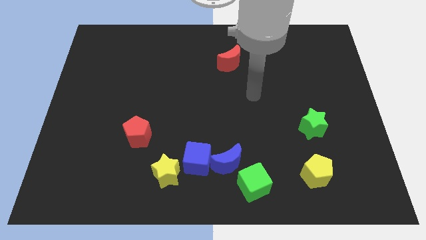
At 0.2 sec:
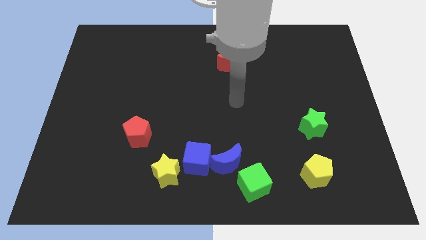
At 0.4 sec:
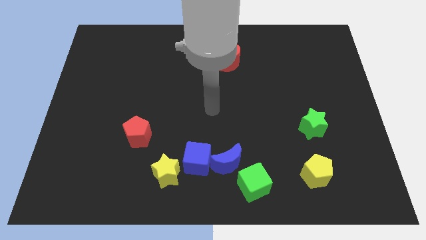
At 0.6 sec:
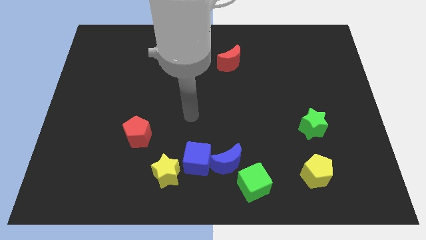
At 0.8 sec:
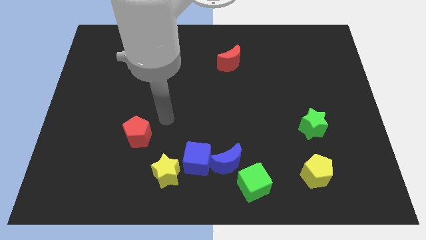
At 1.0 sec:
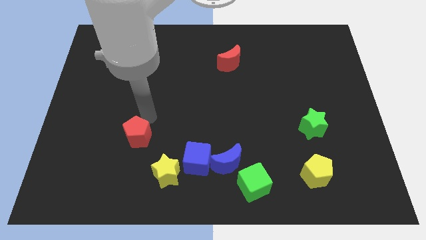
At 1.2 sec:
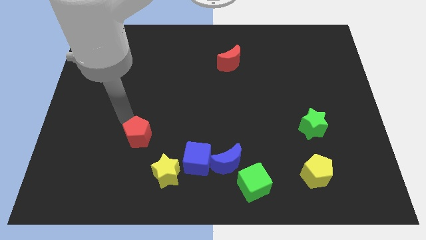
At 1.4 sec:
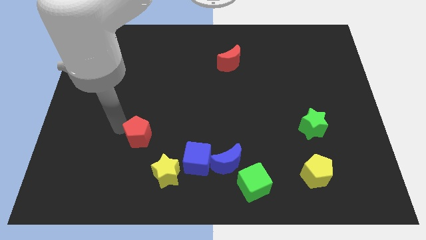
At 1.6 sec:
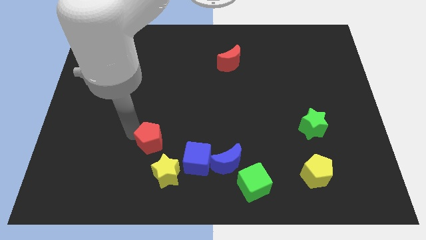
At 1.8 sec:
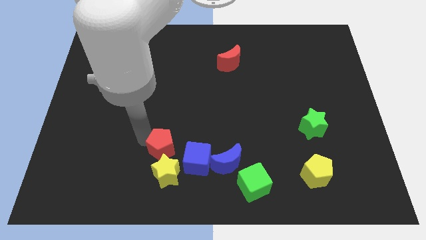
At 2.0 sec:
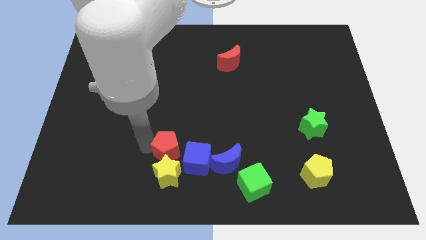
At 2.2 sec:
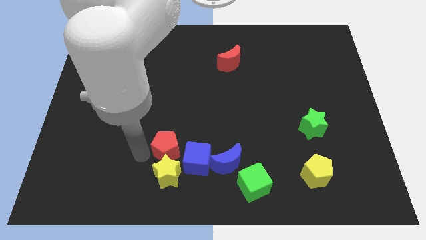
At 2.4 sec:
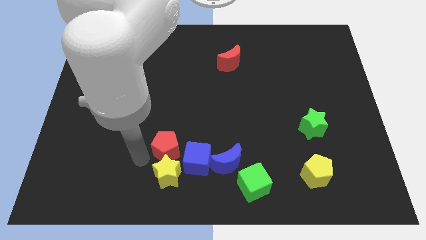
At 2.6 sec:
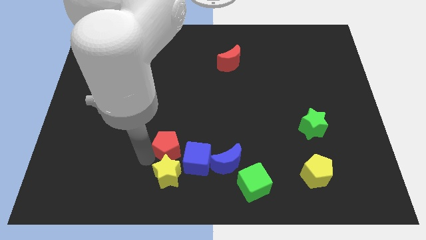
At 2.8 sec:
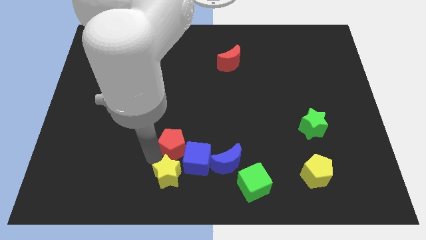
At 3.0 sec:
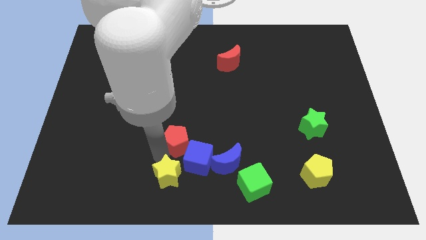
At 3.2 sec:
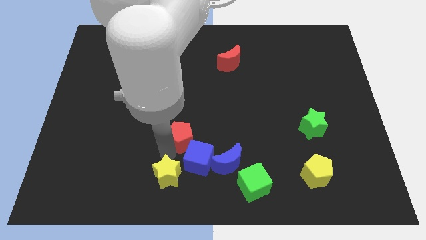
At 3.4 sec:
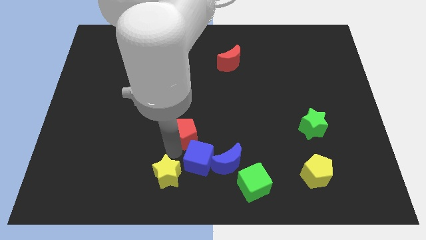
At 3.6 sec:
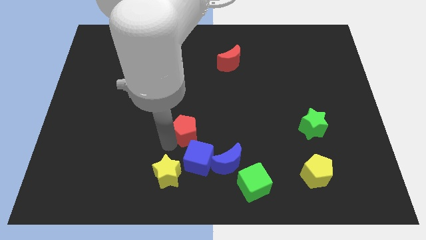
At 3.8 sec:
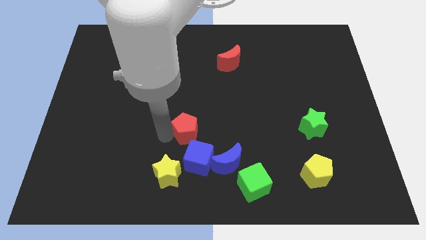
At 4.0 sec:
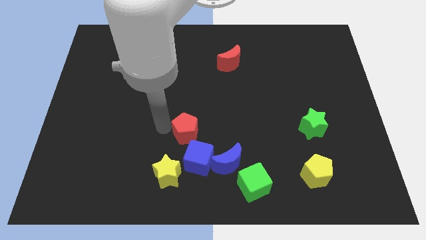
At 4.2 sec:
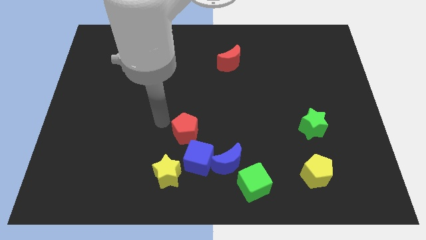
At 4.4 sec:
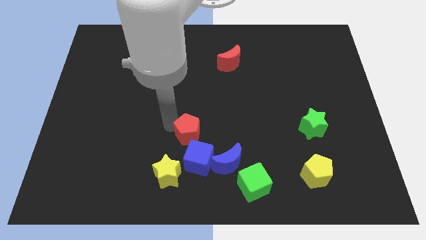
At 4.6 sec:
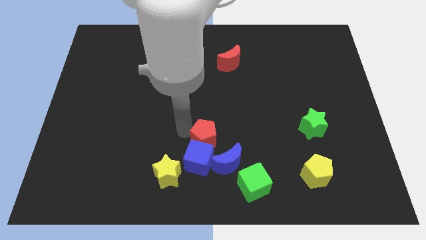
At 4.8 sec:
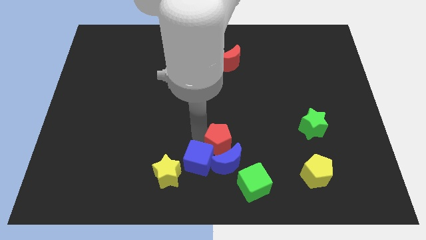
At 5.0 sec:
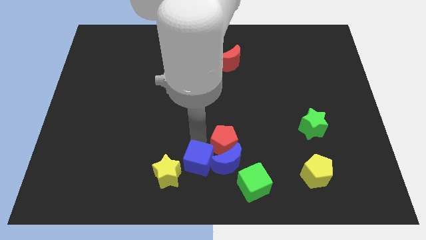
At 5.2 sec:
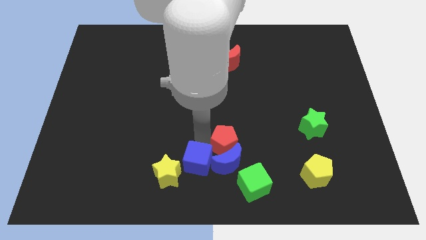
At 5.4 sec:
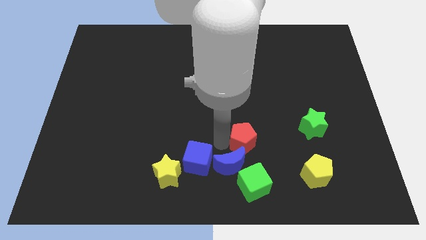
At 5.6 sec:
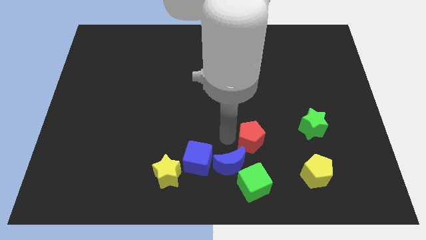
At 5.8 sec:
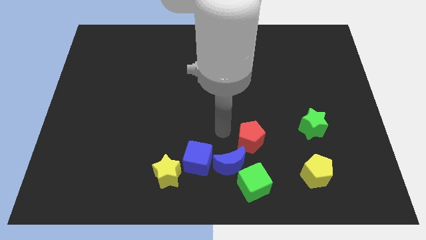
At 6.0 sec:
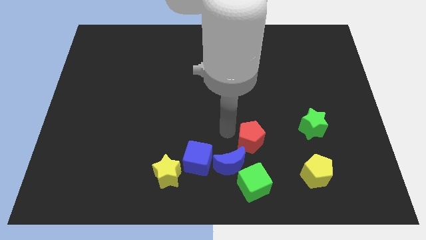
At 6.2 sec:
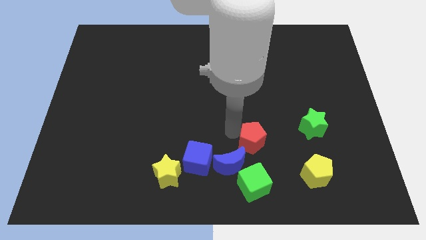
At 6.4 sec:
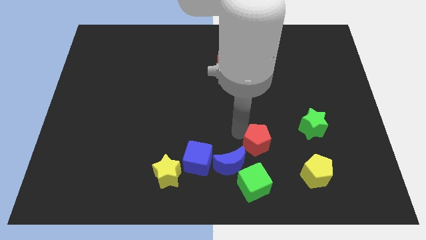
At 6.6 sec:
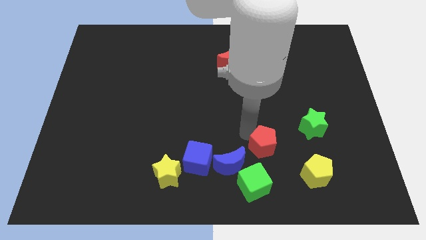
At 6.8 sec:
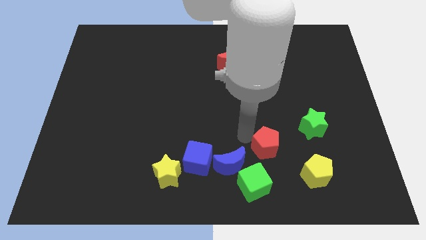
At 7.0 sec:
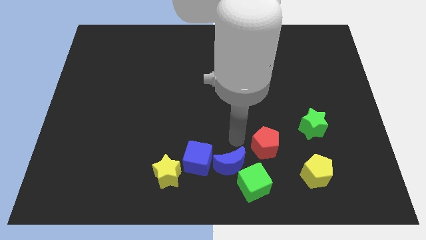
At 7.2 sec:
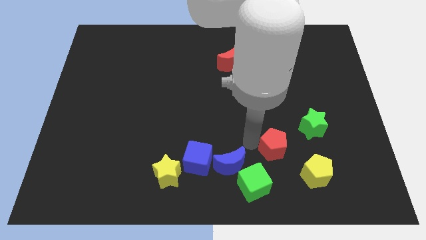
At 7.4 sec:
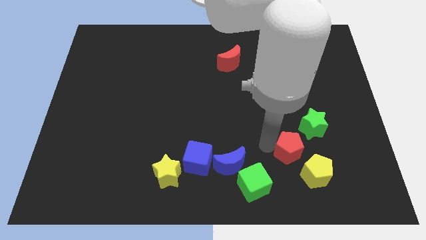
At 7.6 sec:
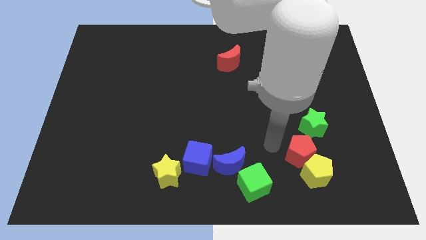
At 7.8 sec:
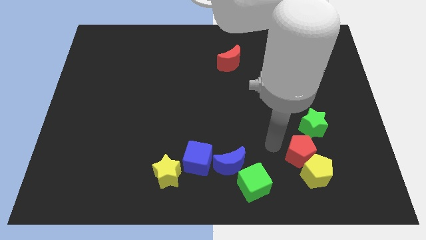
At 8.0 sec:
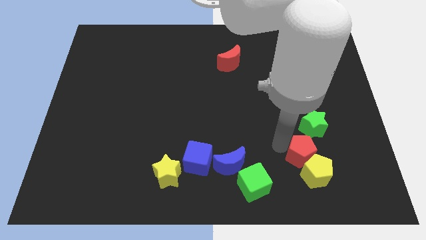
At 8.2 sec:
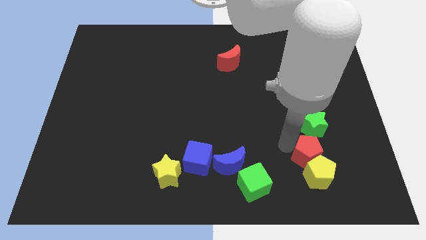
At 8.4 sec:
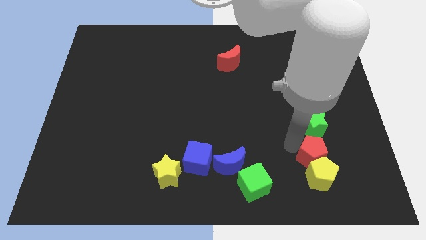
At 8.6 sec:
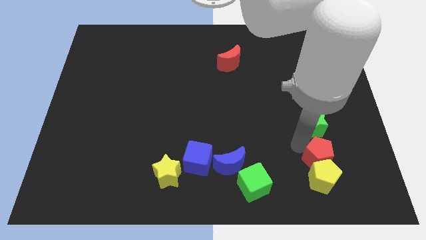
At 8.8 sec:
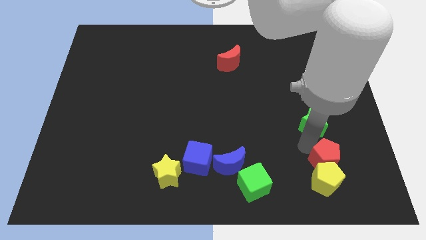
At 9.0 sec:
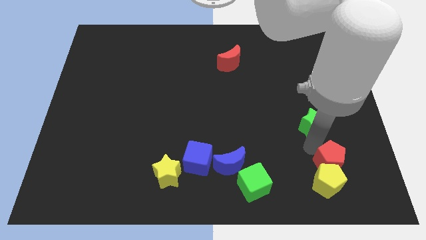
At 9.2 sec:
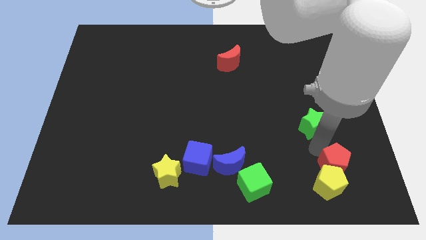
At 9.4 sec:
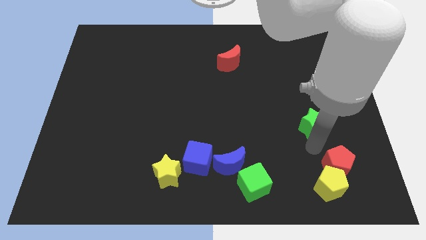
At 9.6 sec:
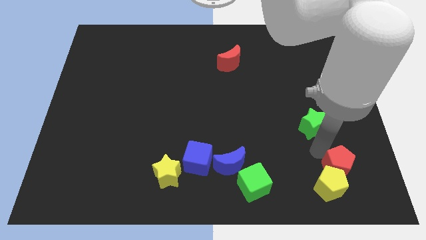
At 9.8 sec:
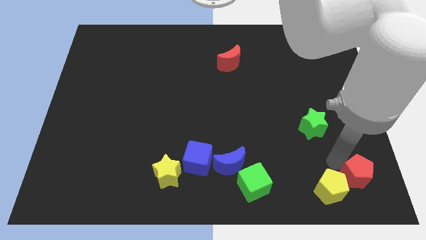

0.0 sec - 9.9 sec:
slide the red pentagon to the bottom right of the board
